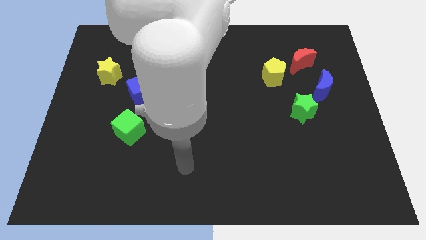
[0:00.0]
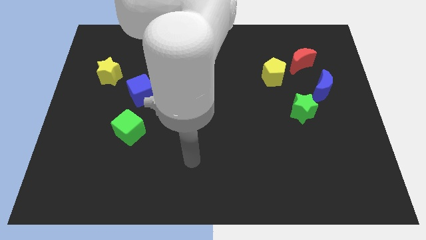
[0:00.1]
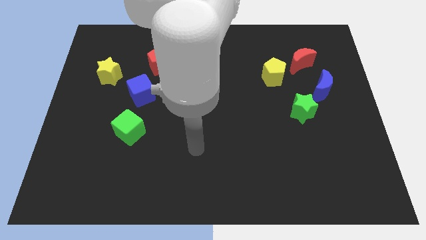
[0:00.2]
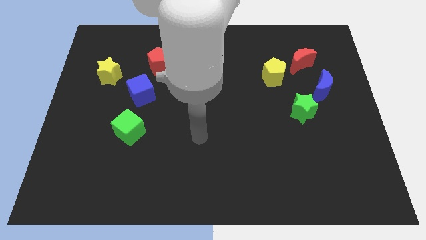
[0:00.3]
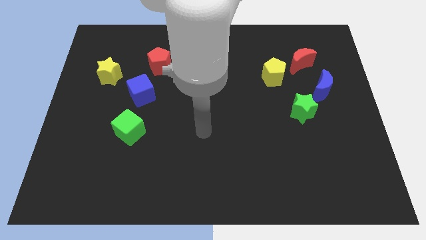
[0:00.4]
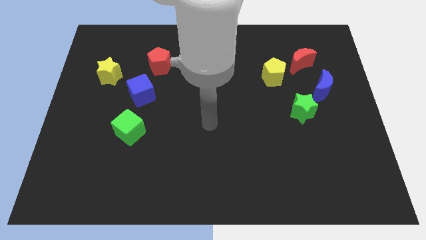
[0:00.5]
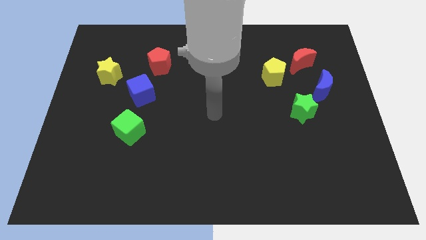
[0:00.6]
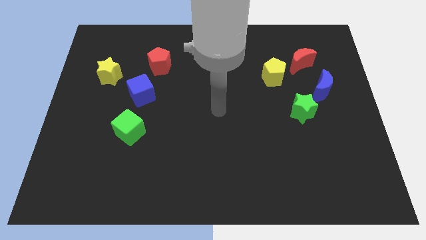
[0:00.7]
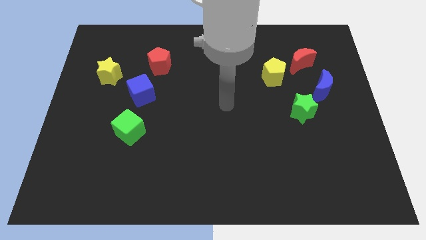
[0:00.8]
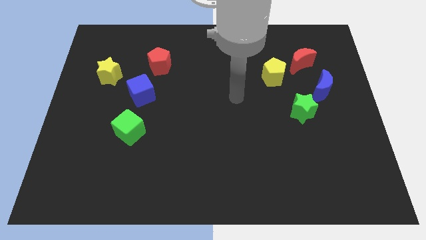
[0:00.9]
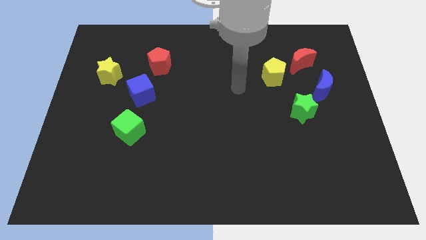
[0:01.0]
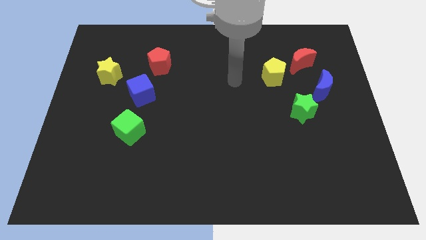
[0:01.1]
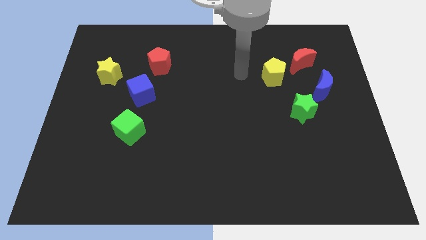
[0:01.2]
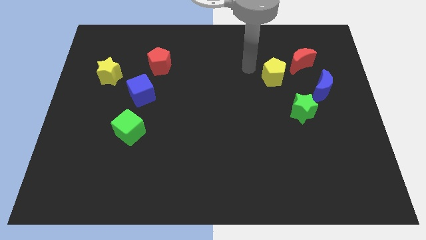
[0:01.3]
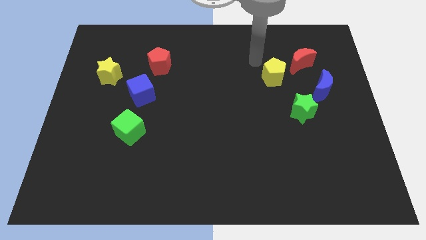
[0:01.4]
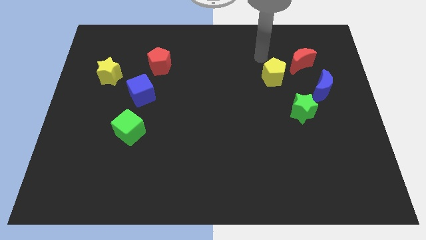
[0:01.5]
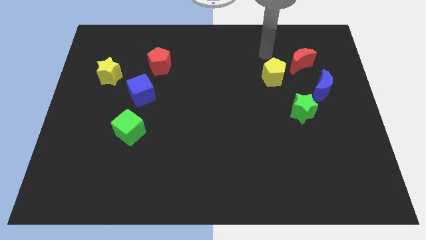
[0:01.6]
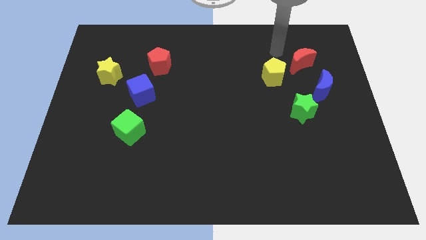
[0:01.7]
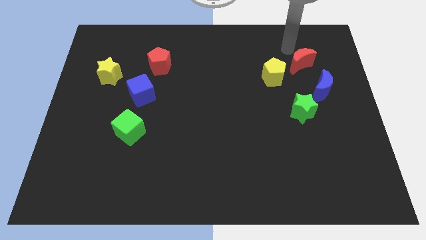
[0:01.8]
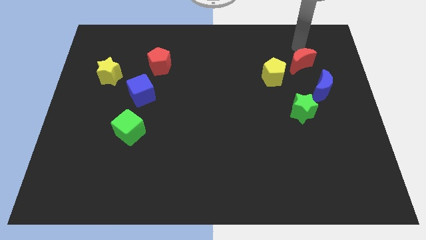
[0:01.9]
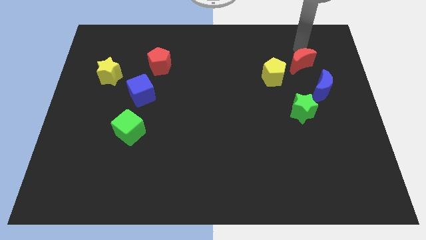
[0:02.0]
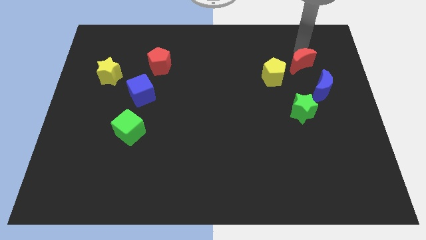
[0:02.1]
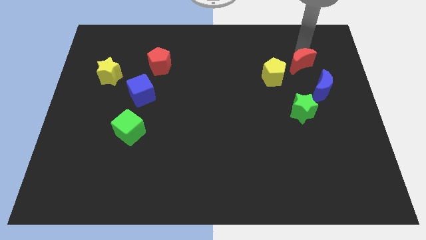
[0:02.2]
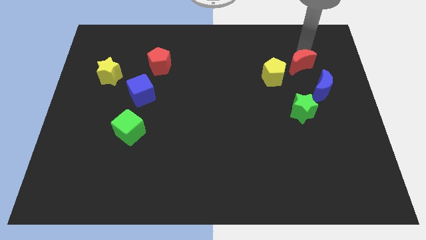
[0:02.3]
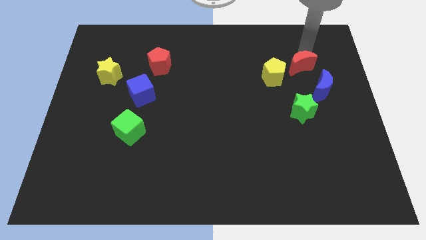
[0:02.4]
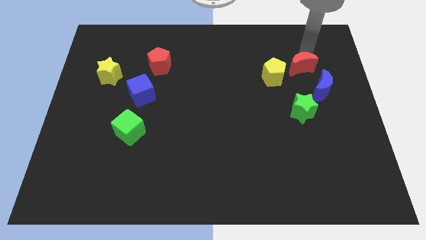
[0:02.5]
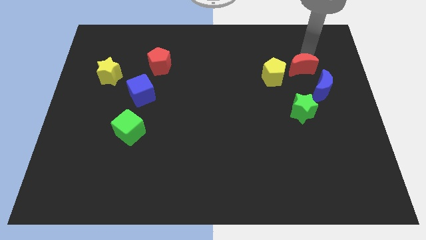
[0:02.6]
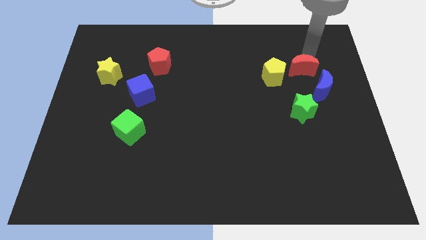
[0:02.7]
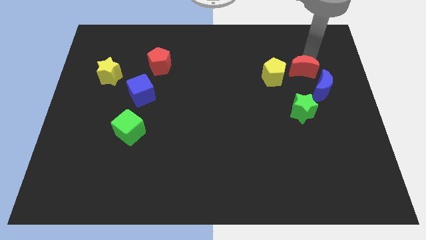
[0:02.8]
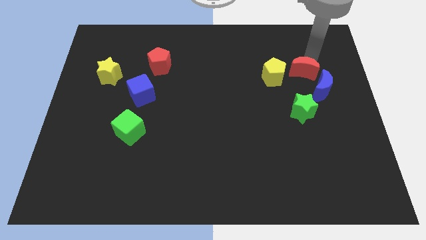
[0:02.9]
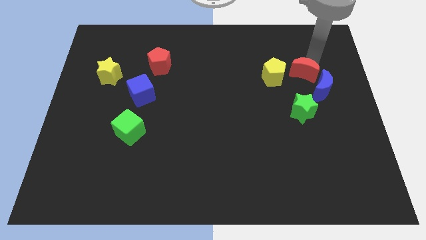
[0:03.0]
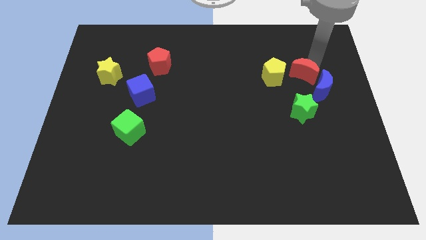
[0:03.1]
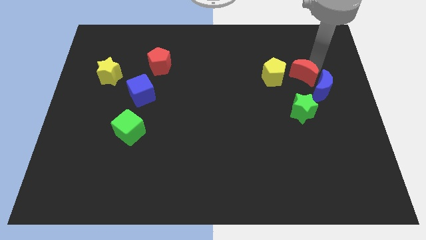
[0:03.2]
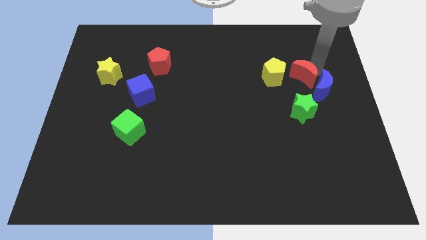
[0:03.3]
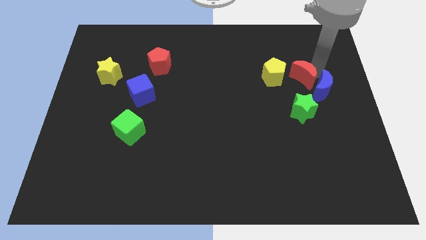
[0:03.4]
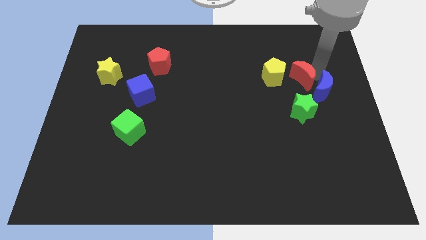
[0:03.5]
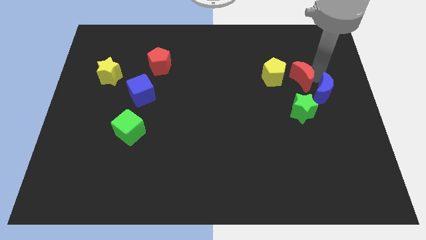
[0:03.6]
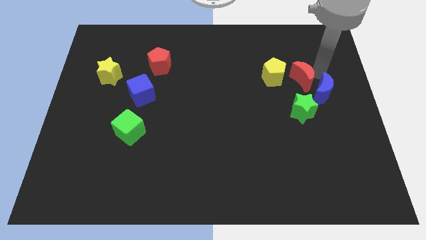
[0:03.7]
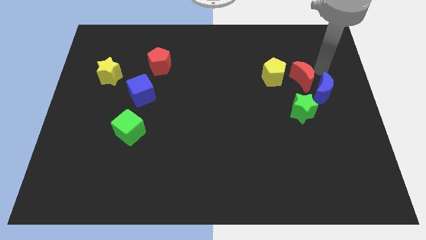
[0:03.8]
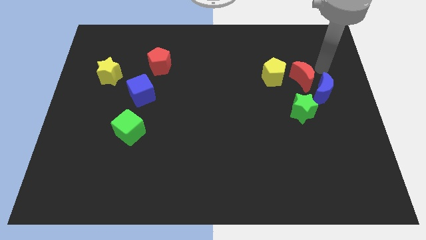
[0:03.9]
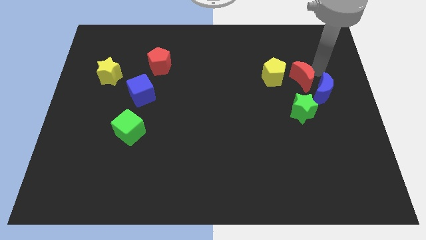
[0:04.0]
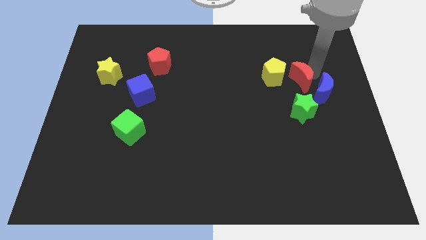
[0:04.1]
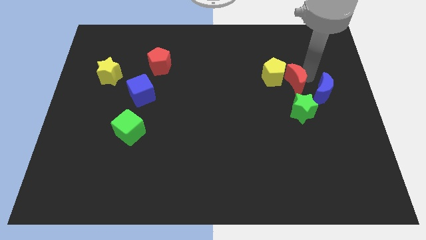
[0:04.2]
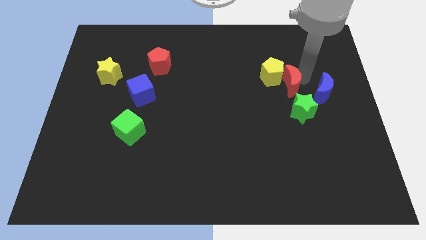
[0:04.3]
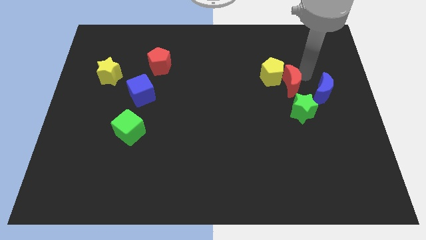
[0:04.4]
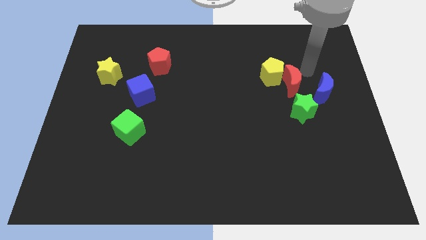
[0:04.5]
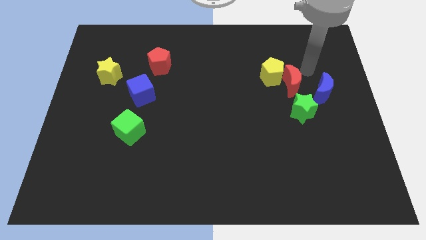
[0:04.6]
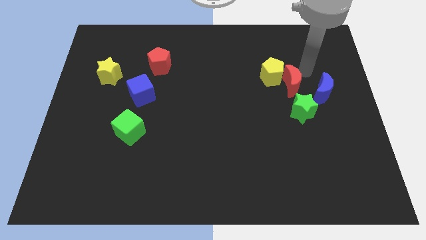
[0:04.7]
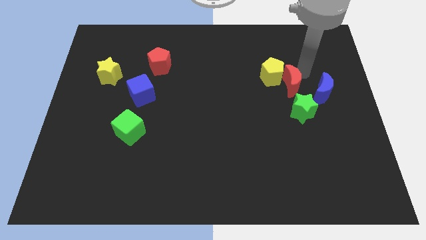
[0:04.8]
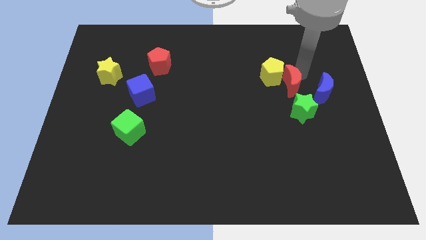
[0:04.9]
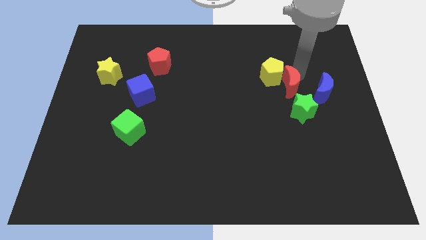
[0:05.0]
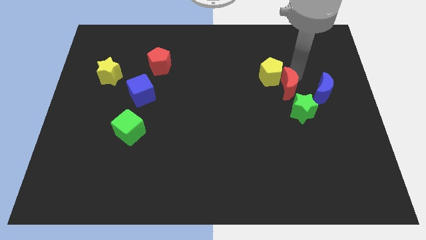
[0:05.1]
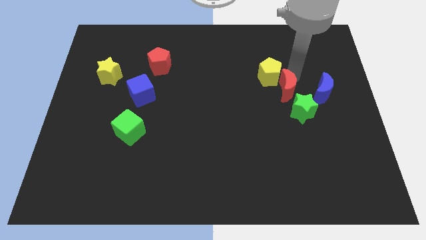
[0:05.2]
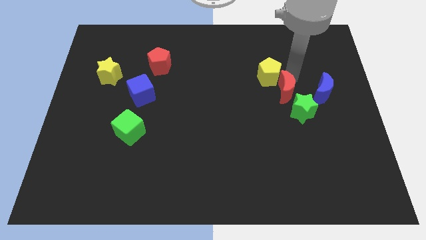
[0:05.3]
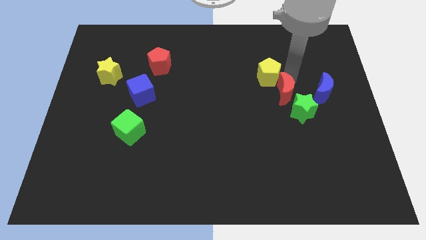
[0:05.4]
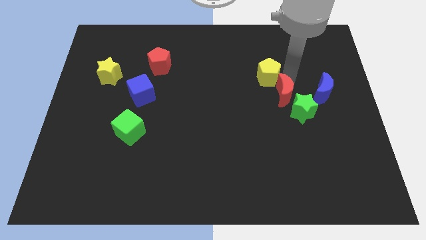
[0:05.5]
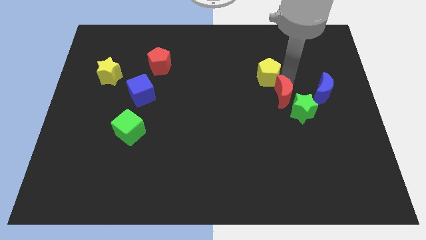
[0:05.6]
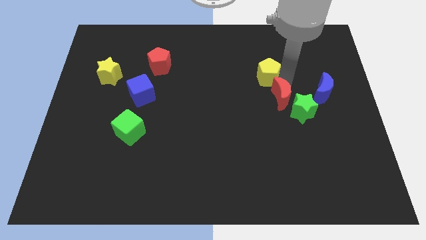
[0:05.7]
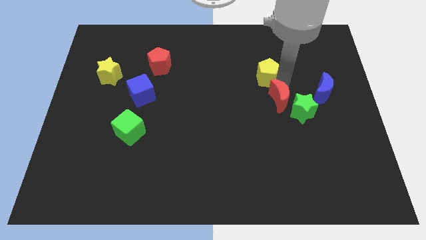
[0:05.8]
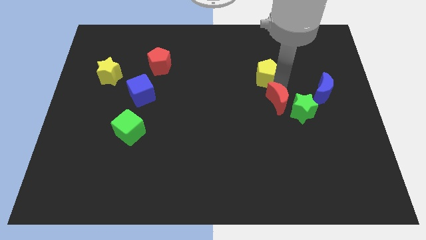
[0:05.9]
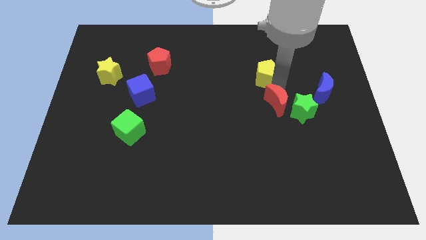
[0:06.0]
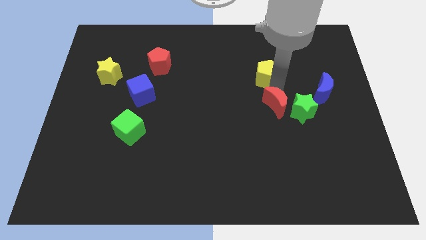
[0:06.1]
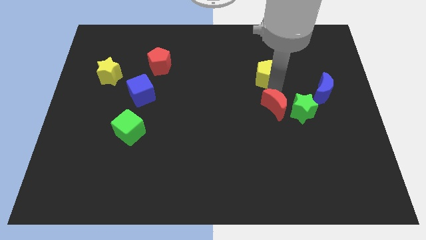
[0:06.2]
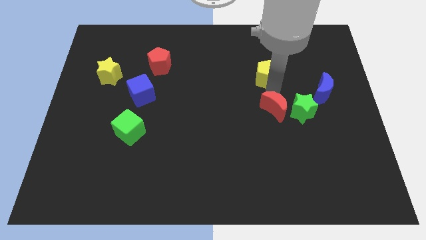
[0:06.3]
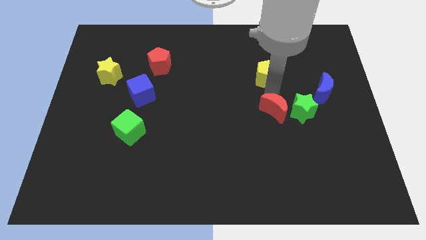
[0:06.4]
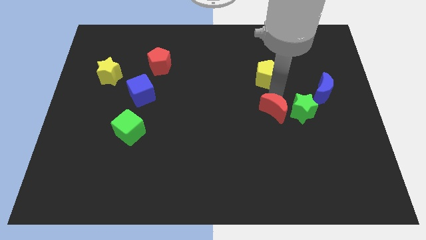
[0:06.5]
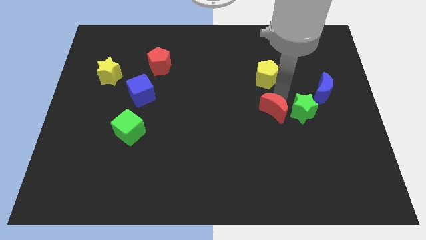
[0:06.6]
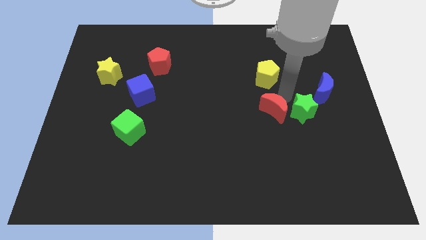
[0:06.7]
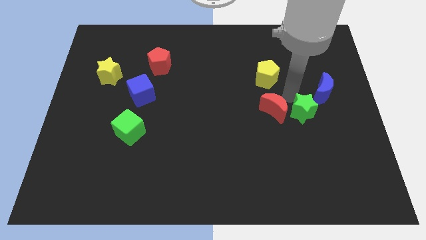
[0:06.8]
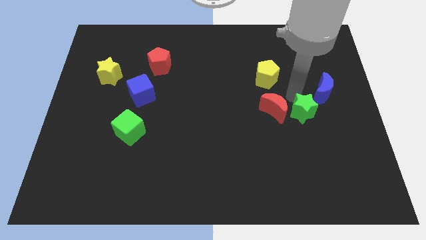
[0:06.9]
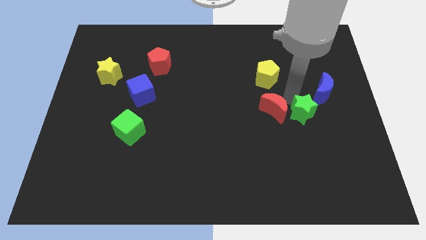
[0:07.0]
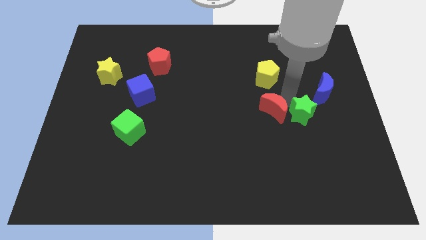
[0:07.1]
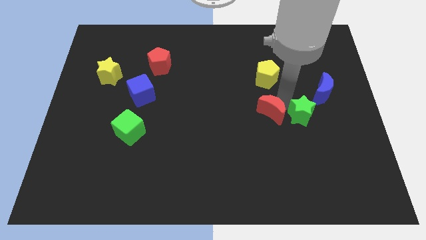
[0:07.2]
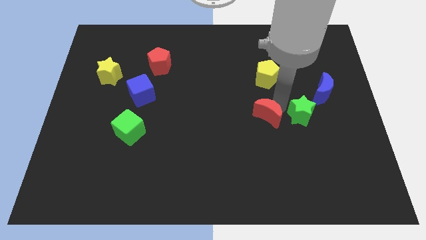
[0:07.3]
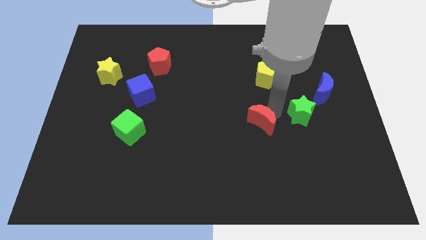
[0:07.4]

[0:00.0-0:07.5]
push the red moon diagonally down and left

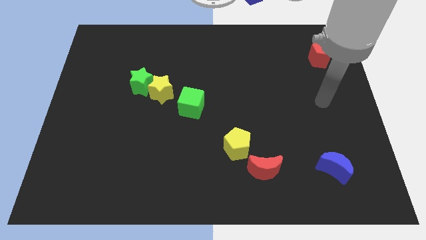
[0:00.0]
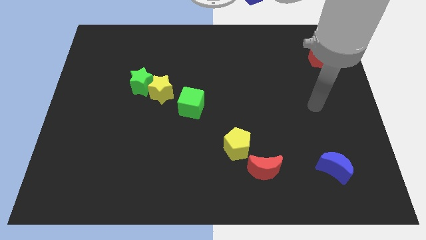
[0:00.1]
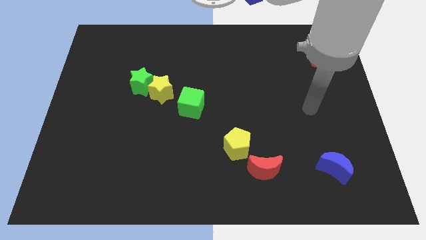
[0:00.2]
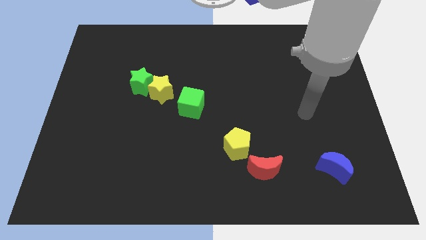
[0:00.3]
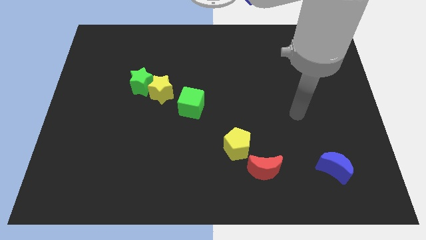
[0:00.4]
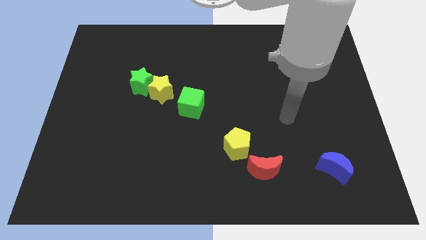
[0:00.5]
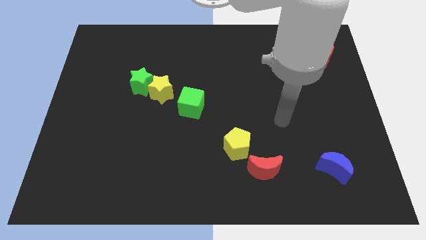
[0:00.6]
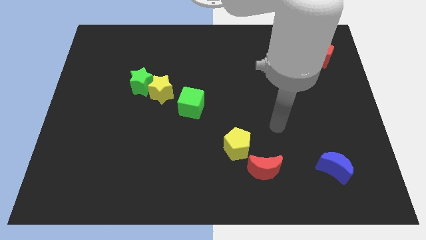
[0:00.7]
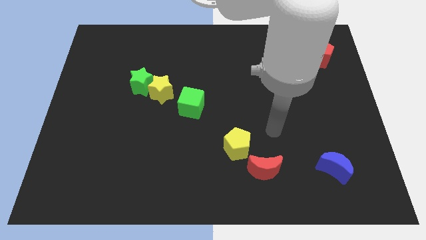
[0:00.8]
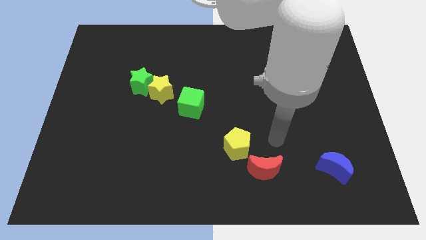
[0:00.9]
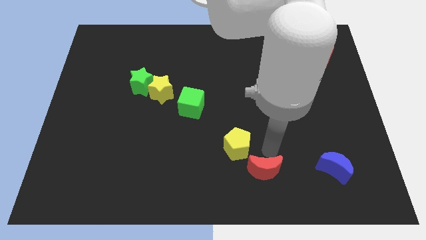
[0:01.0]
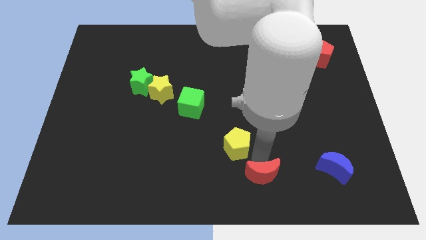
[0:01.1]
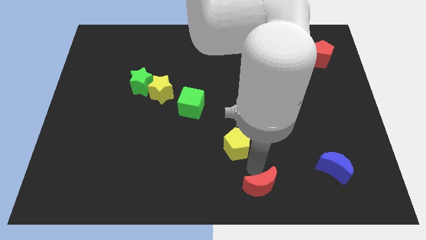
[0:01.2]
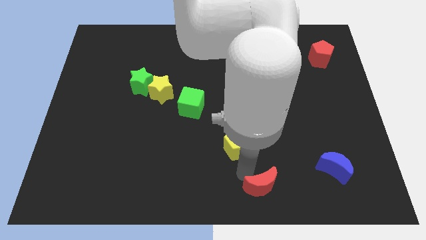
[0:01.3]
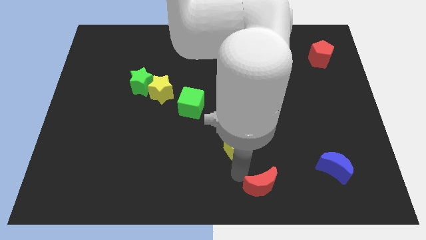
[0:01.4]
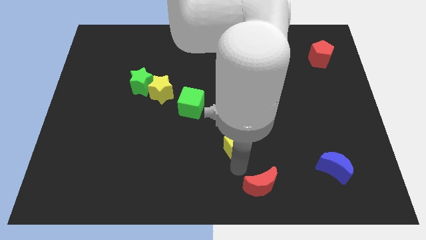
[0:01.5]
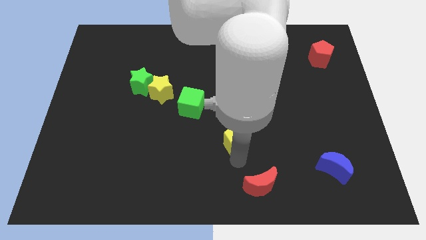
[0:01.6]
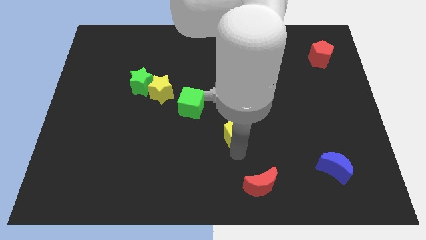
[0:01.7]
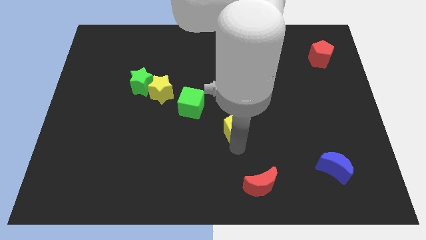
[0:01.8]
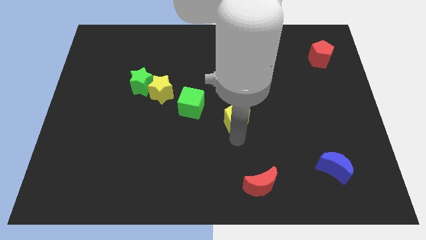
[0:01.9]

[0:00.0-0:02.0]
slide the yellow pentagon upwards somewhat
